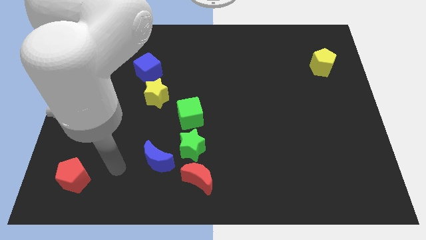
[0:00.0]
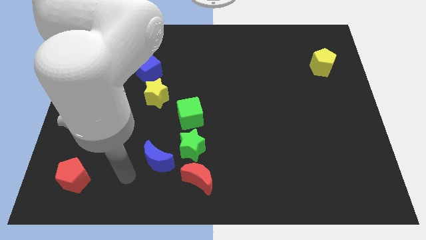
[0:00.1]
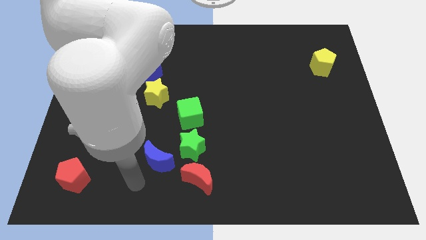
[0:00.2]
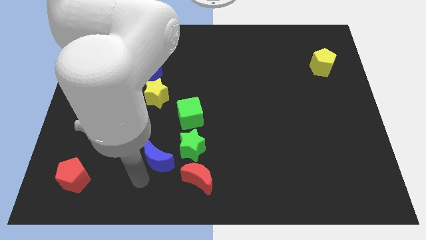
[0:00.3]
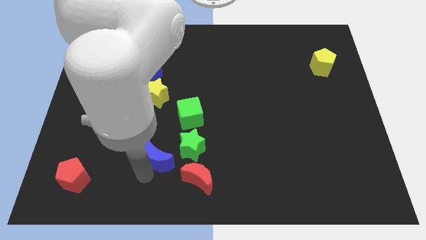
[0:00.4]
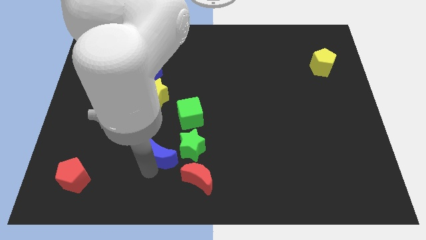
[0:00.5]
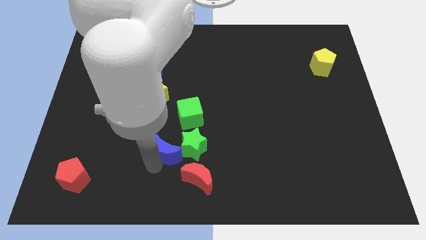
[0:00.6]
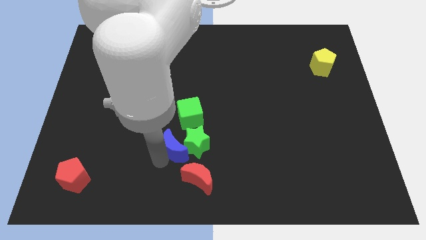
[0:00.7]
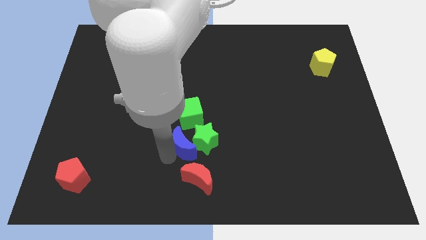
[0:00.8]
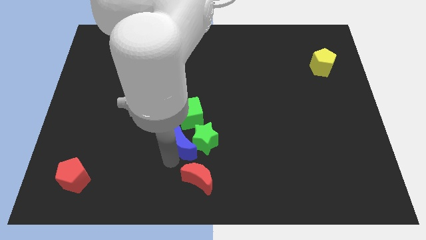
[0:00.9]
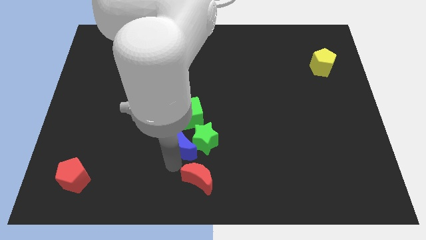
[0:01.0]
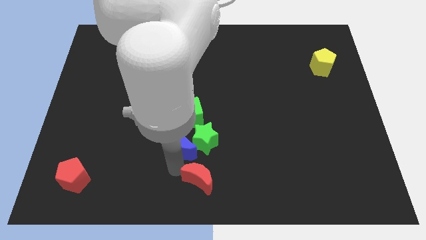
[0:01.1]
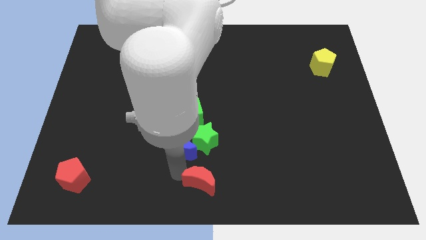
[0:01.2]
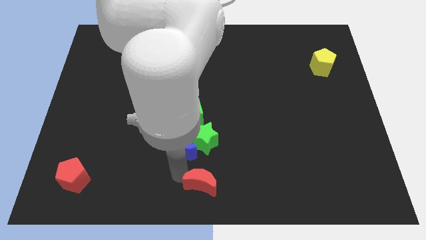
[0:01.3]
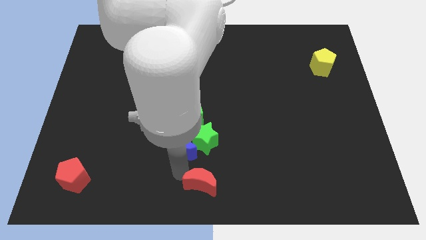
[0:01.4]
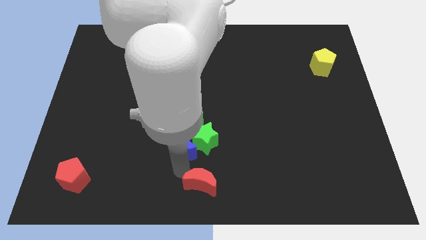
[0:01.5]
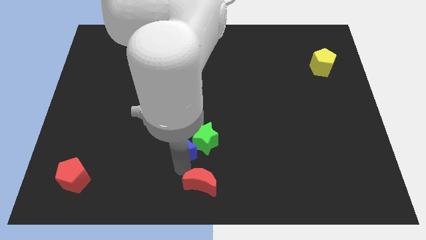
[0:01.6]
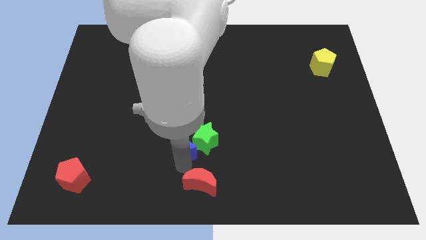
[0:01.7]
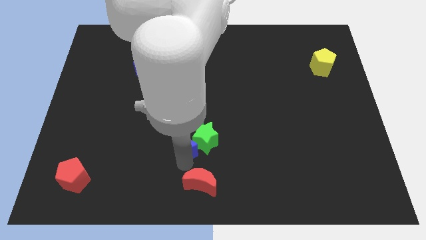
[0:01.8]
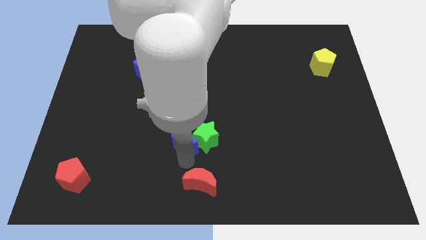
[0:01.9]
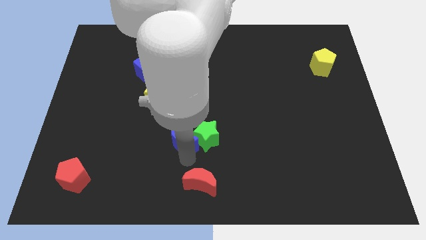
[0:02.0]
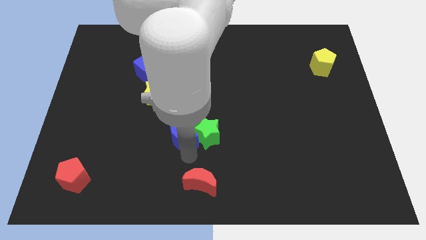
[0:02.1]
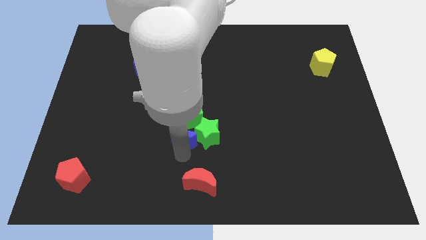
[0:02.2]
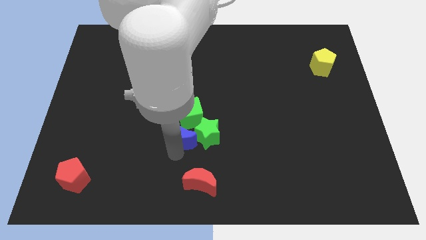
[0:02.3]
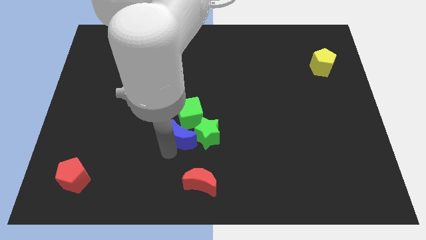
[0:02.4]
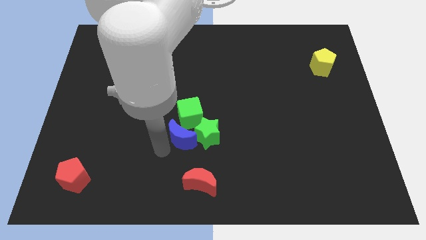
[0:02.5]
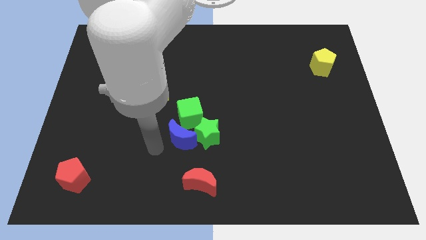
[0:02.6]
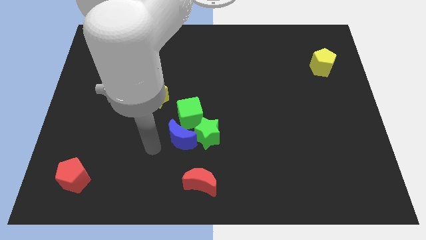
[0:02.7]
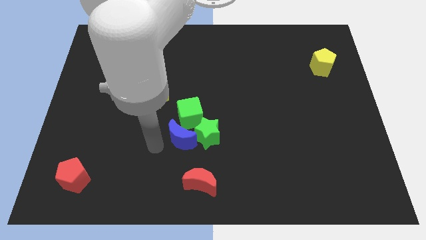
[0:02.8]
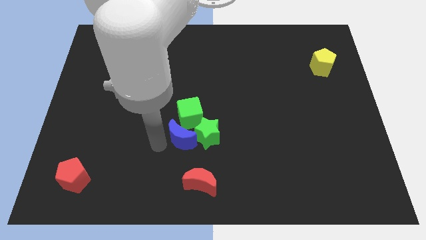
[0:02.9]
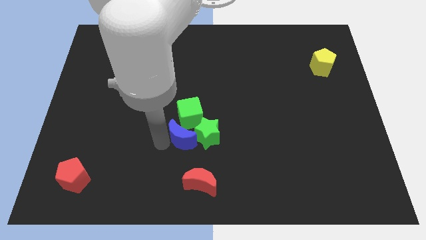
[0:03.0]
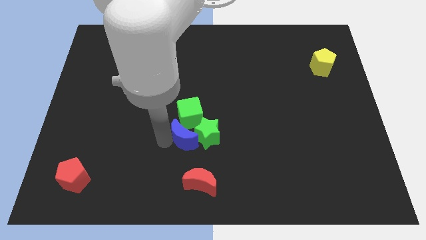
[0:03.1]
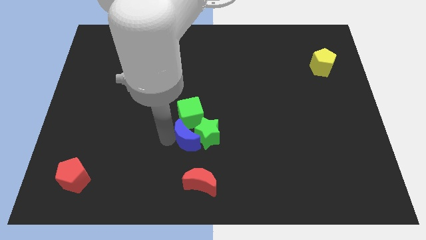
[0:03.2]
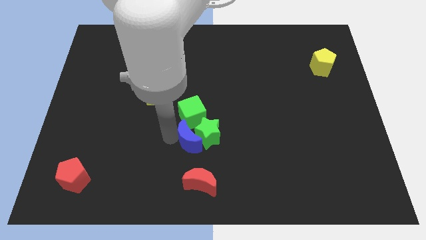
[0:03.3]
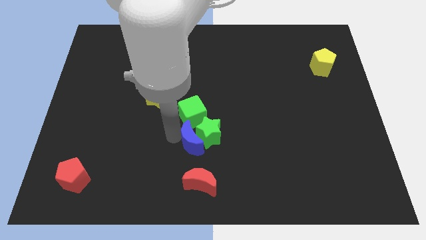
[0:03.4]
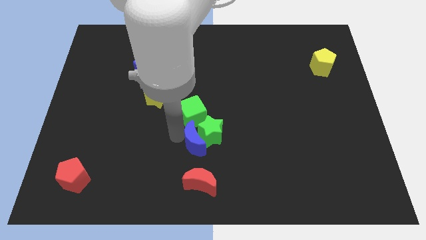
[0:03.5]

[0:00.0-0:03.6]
move the blue moon a little to the right

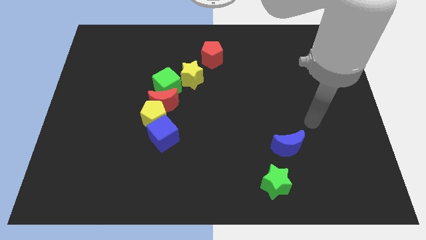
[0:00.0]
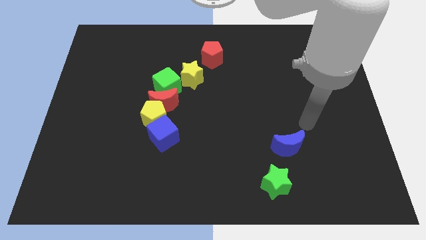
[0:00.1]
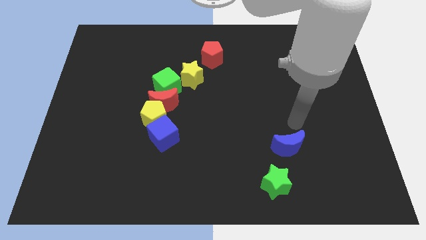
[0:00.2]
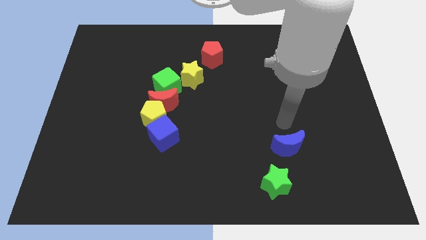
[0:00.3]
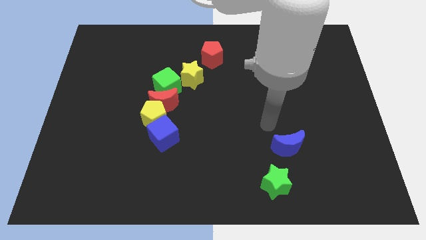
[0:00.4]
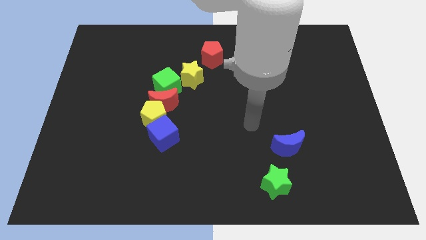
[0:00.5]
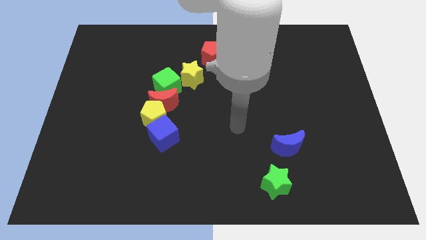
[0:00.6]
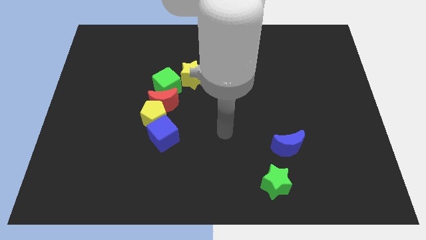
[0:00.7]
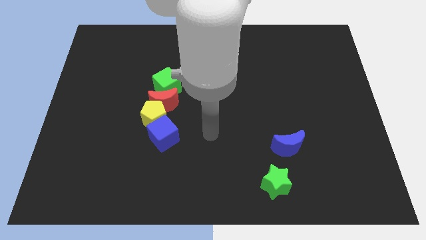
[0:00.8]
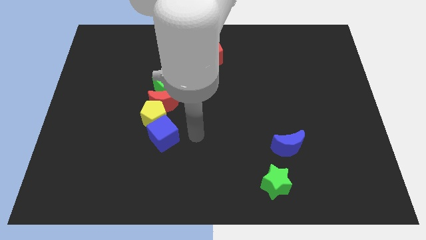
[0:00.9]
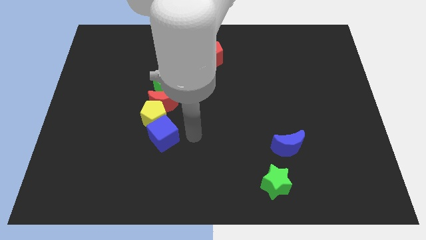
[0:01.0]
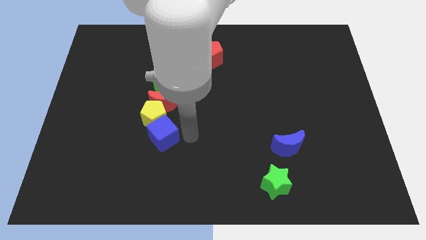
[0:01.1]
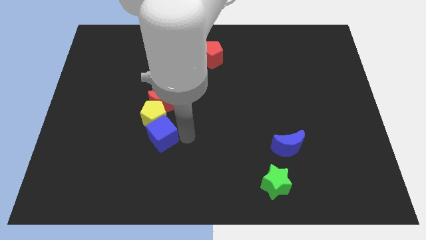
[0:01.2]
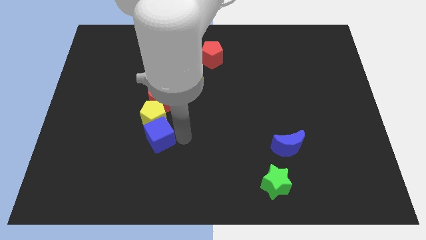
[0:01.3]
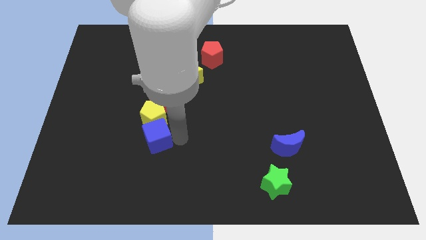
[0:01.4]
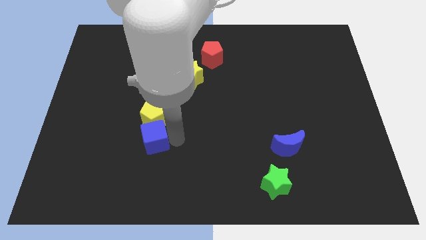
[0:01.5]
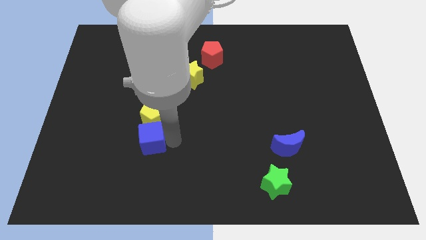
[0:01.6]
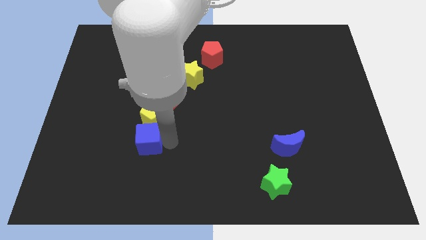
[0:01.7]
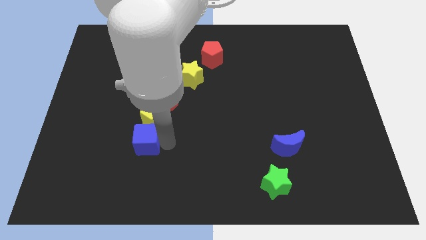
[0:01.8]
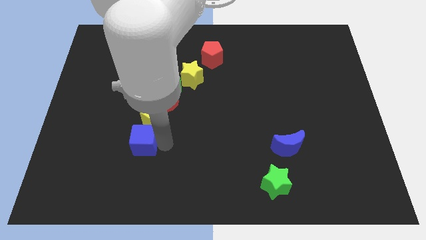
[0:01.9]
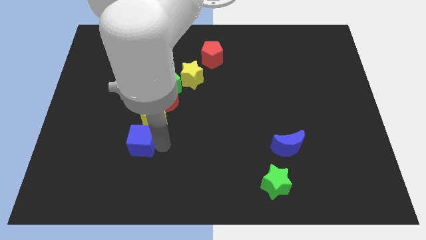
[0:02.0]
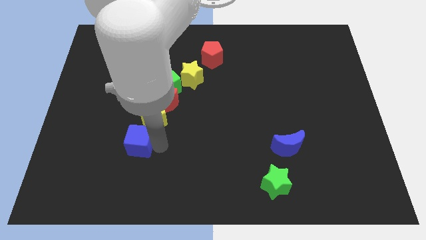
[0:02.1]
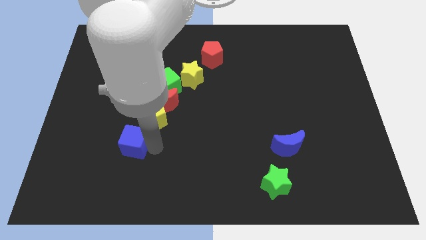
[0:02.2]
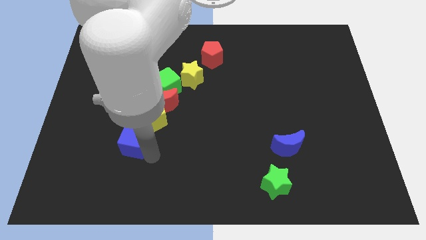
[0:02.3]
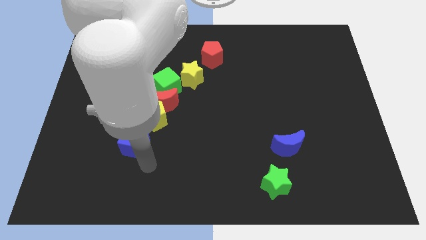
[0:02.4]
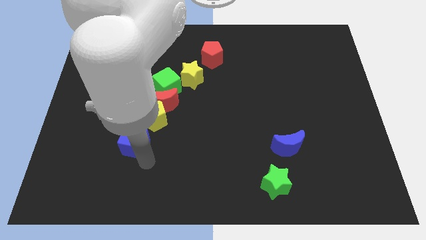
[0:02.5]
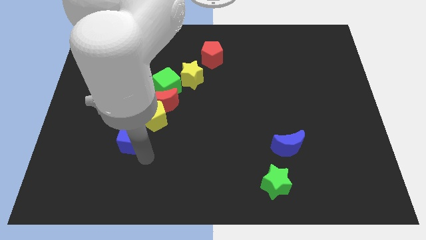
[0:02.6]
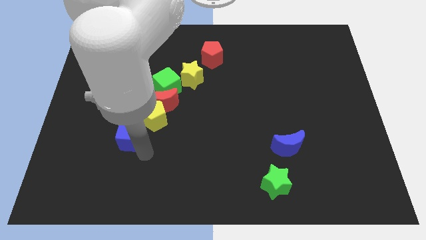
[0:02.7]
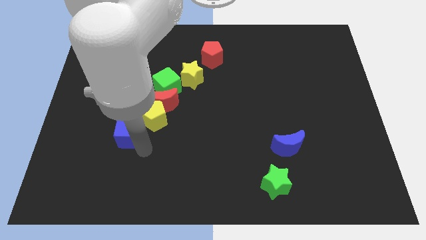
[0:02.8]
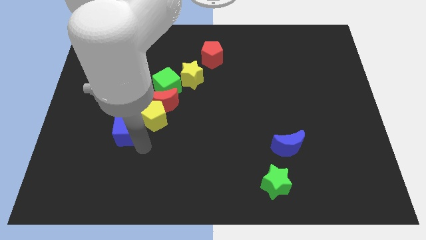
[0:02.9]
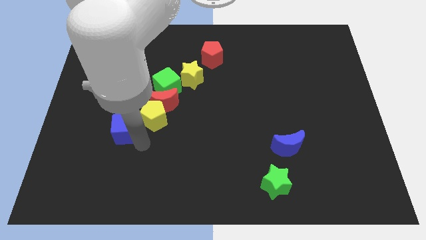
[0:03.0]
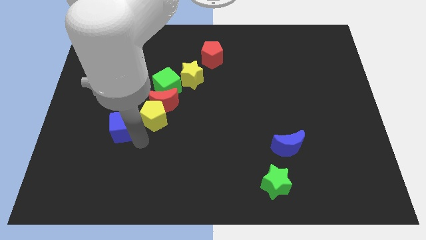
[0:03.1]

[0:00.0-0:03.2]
push the blue cube diagonally up and to the left slightly

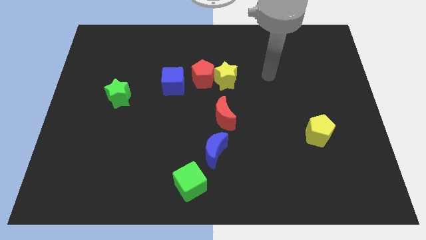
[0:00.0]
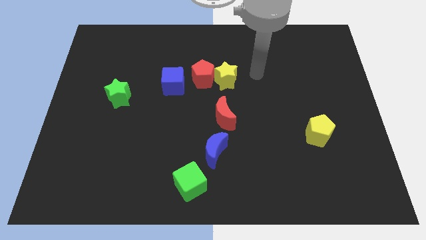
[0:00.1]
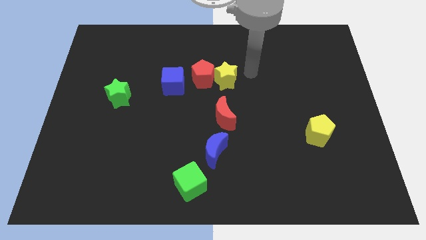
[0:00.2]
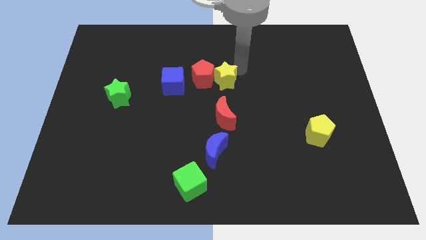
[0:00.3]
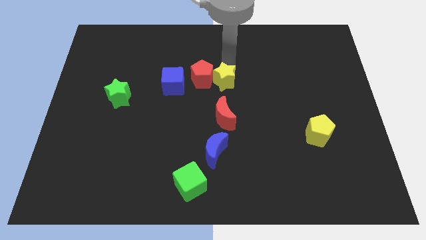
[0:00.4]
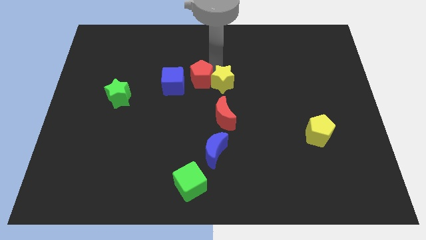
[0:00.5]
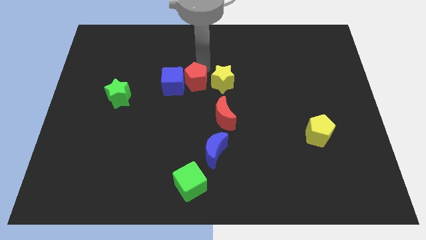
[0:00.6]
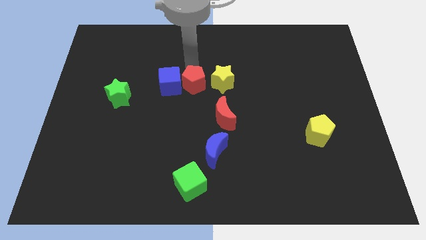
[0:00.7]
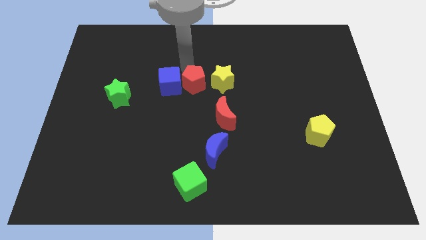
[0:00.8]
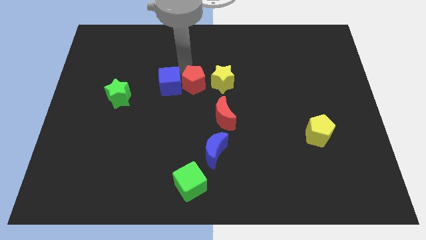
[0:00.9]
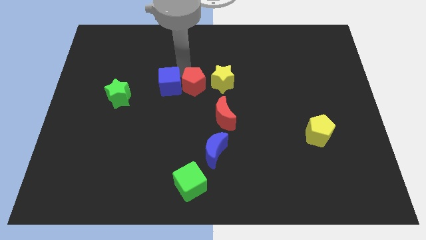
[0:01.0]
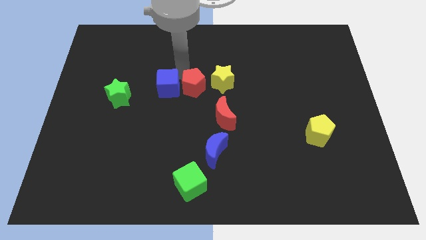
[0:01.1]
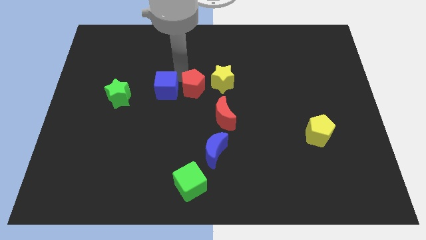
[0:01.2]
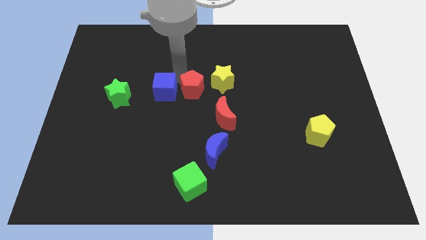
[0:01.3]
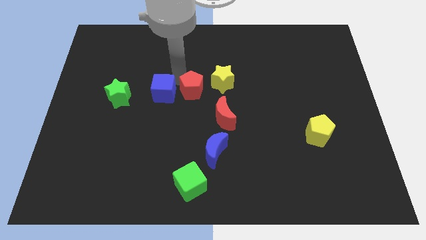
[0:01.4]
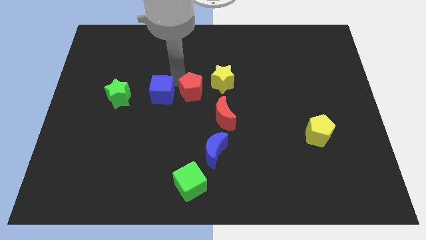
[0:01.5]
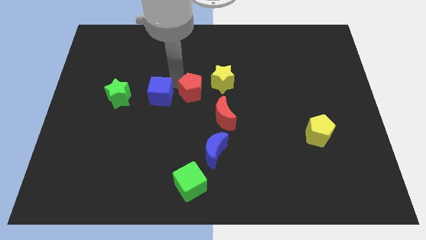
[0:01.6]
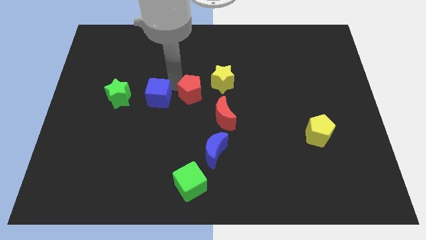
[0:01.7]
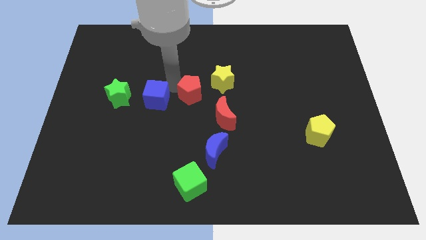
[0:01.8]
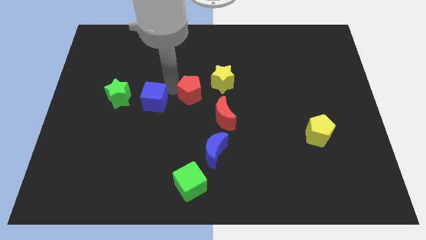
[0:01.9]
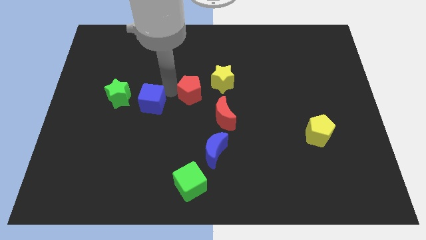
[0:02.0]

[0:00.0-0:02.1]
slightly slide the blue cube down and to the left diagonally
